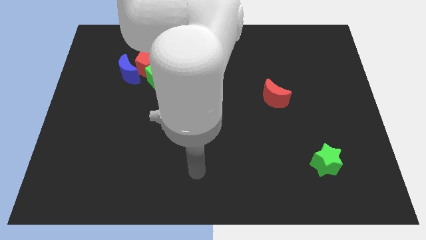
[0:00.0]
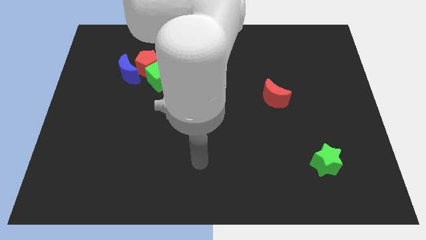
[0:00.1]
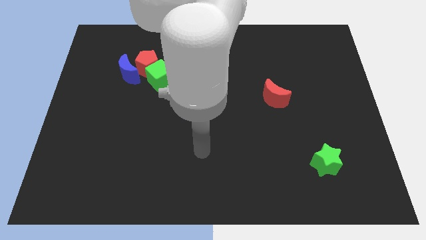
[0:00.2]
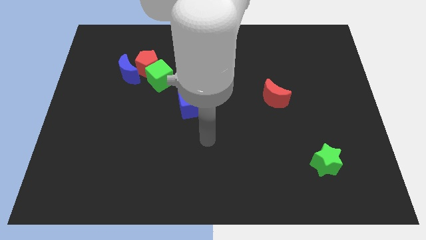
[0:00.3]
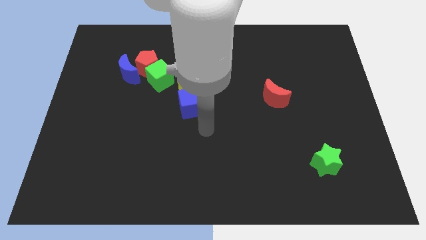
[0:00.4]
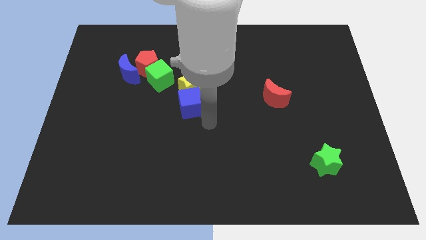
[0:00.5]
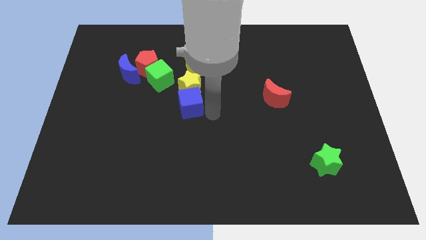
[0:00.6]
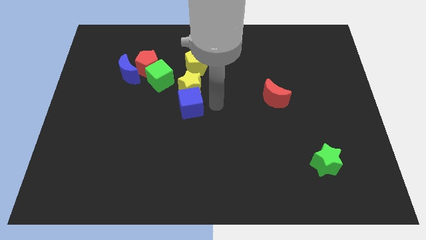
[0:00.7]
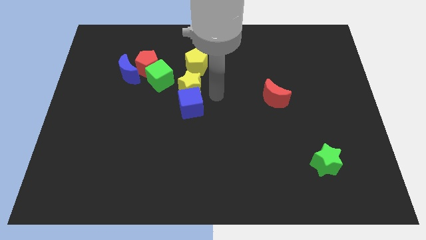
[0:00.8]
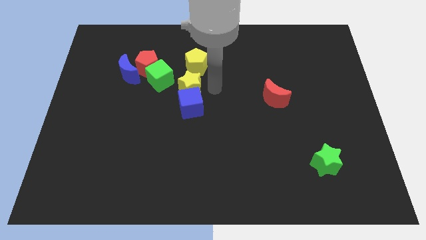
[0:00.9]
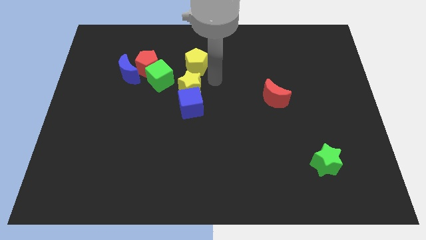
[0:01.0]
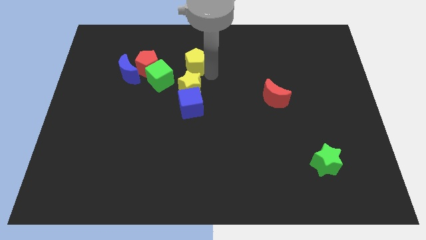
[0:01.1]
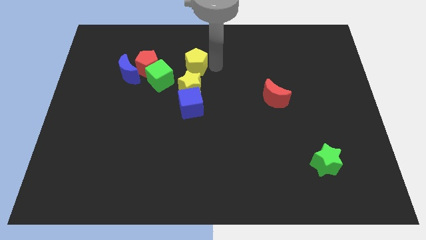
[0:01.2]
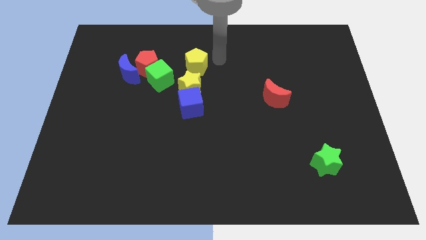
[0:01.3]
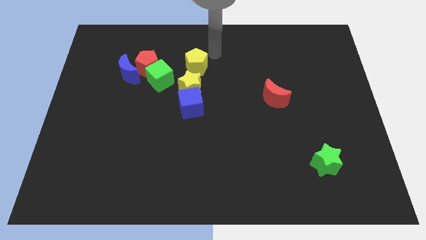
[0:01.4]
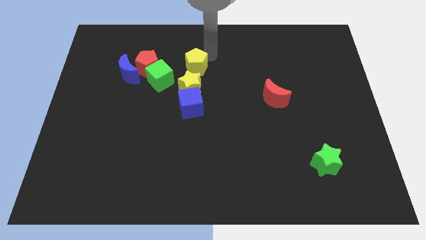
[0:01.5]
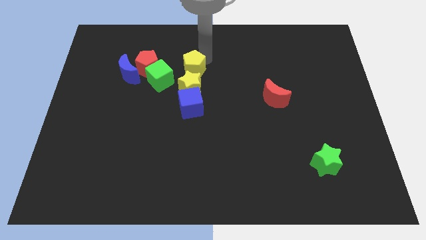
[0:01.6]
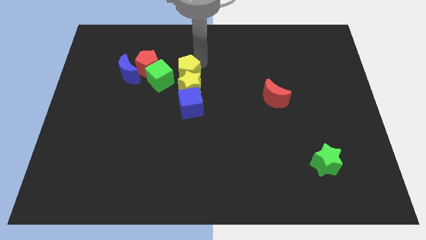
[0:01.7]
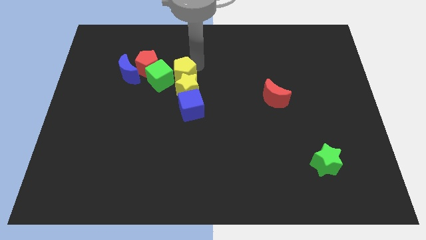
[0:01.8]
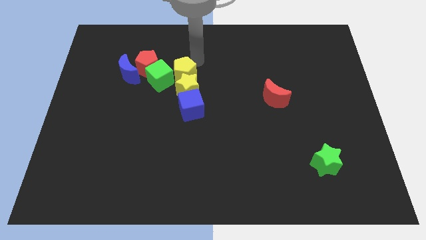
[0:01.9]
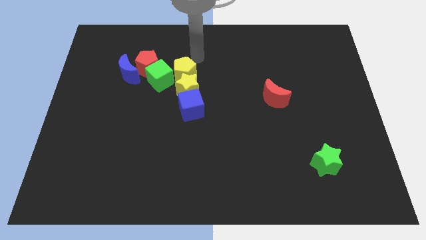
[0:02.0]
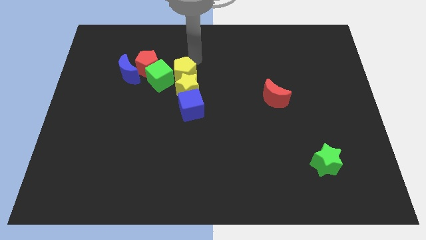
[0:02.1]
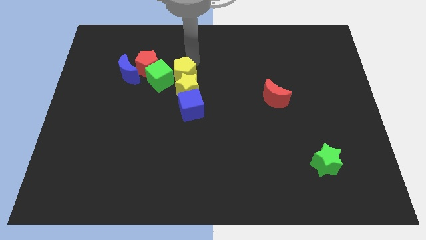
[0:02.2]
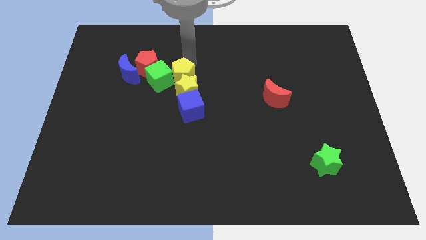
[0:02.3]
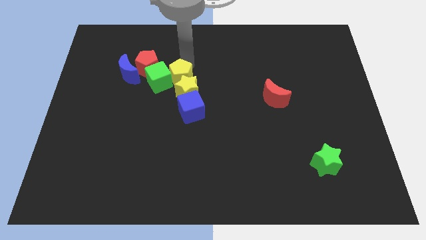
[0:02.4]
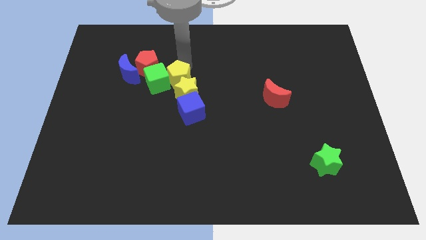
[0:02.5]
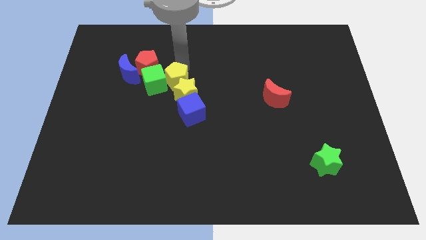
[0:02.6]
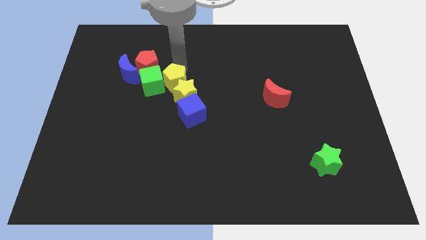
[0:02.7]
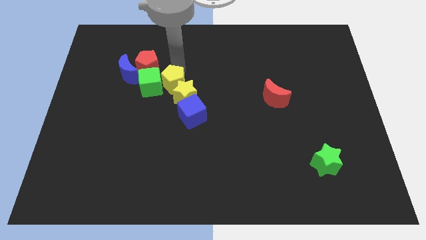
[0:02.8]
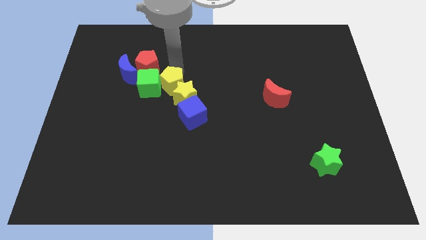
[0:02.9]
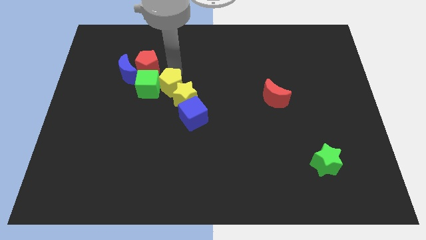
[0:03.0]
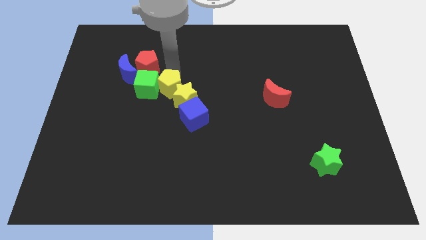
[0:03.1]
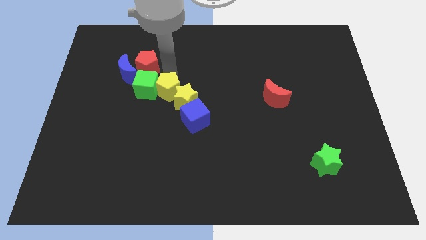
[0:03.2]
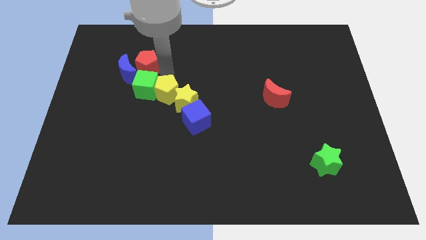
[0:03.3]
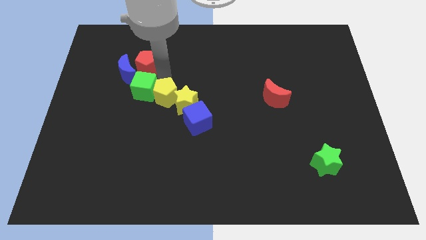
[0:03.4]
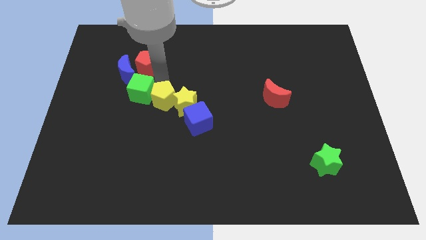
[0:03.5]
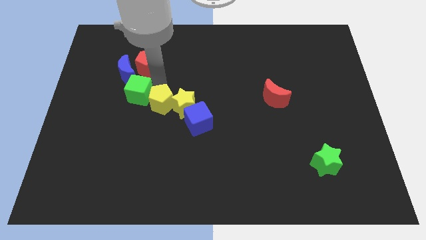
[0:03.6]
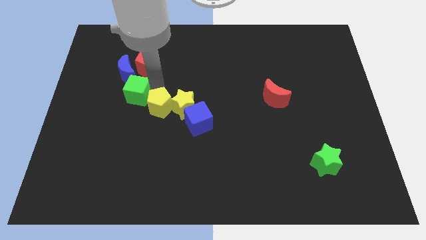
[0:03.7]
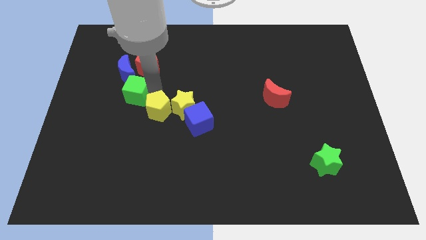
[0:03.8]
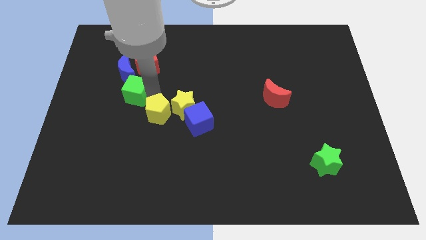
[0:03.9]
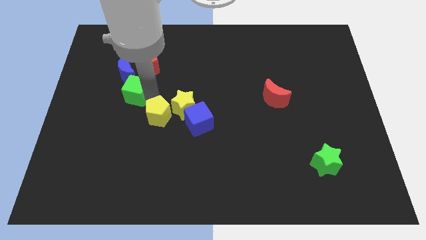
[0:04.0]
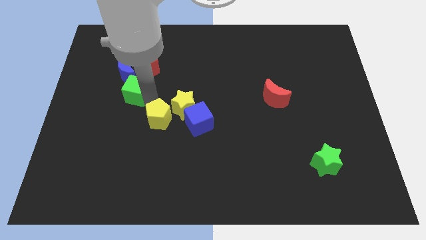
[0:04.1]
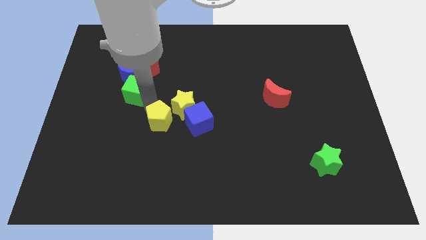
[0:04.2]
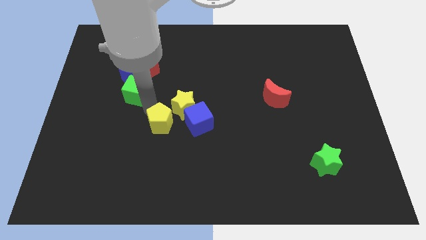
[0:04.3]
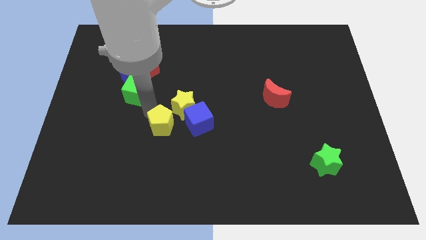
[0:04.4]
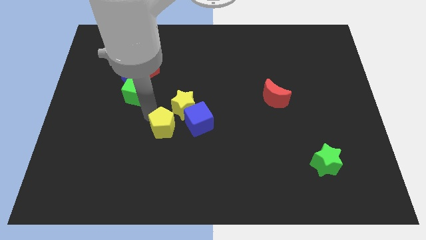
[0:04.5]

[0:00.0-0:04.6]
move the yellow pentagon to the bottom left of the blue cube

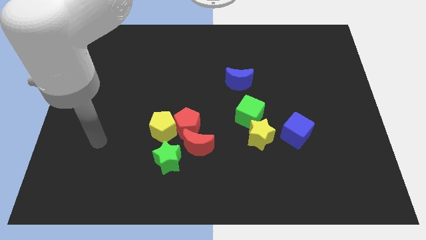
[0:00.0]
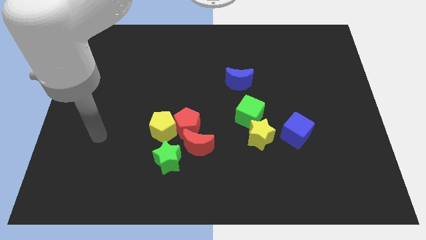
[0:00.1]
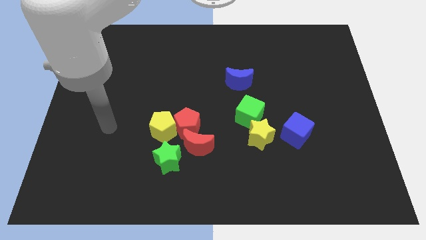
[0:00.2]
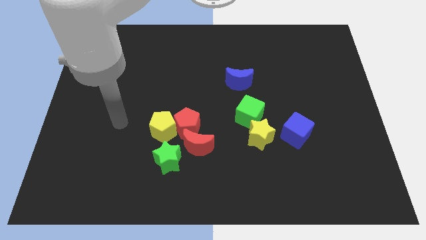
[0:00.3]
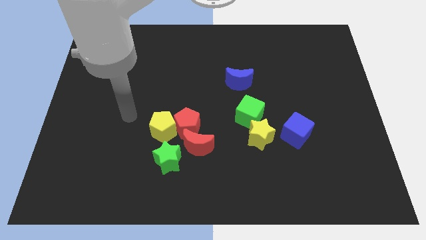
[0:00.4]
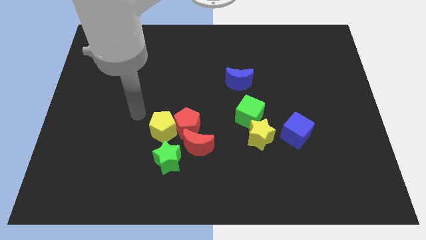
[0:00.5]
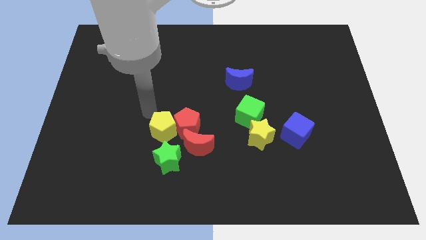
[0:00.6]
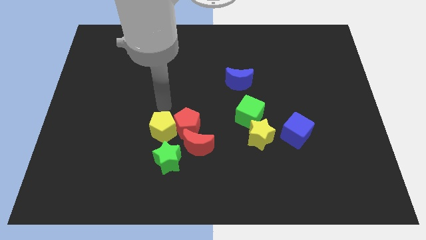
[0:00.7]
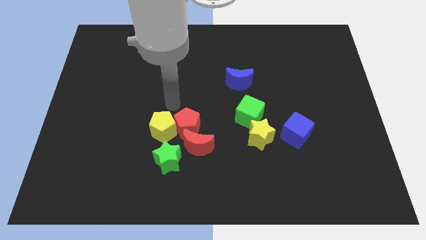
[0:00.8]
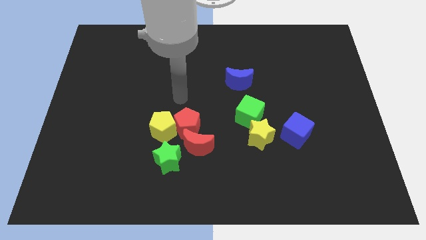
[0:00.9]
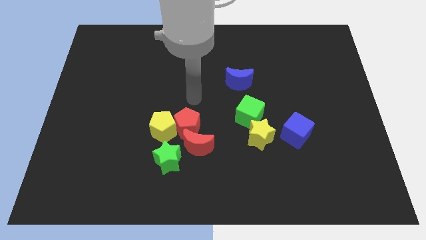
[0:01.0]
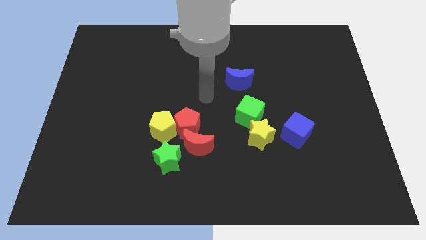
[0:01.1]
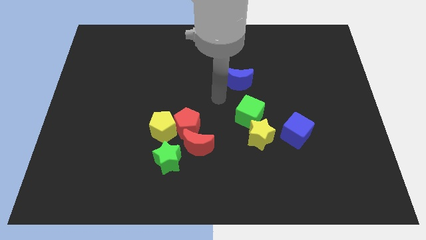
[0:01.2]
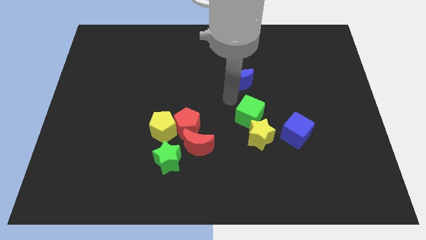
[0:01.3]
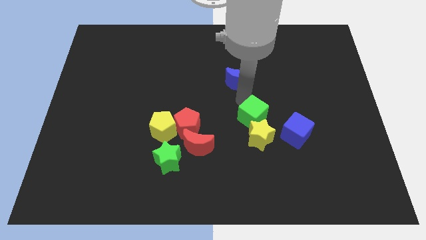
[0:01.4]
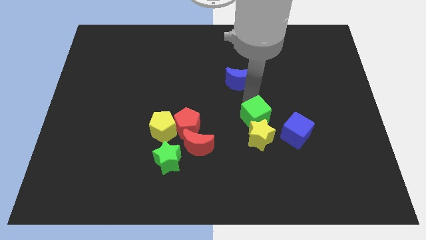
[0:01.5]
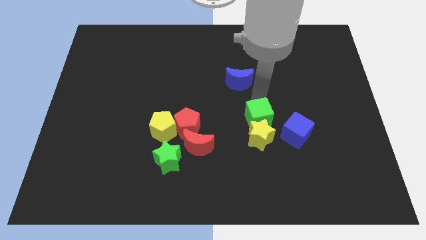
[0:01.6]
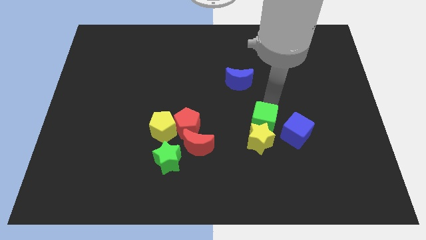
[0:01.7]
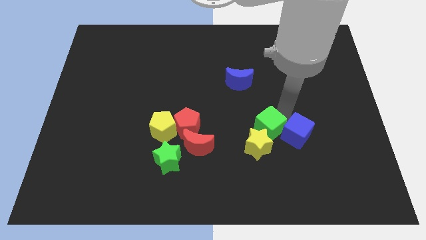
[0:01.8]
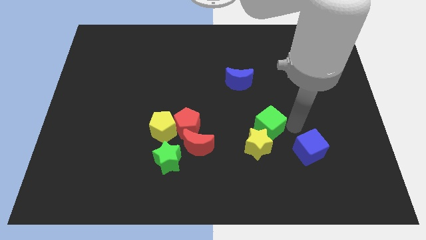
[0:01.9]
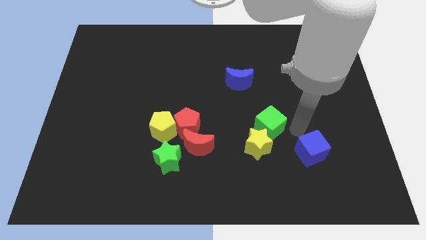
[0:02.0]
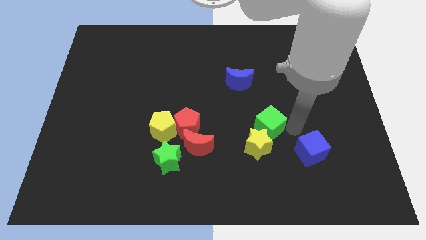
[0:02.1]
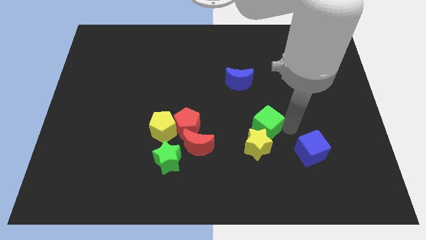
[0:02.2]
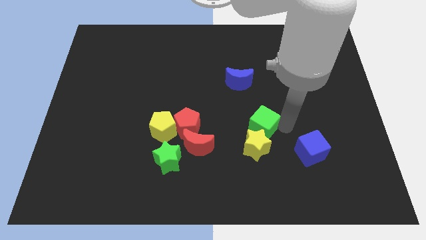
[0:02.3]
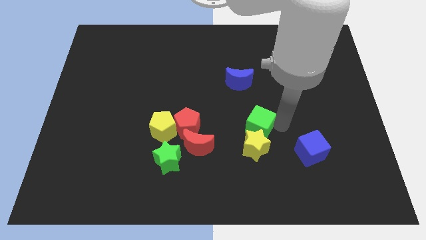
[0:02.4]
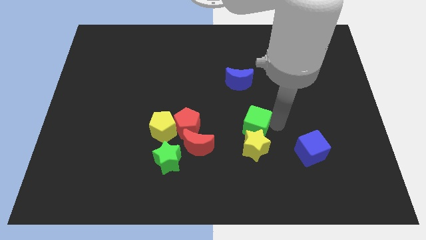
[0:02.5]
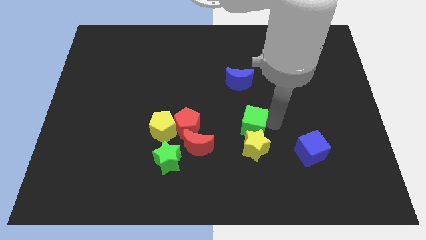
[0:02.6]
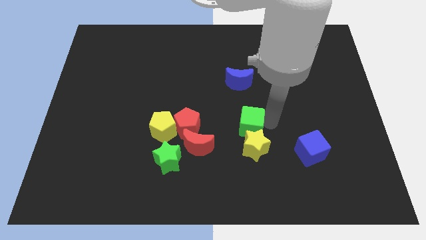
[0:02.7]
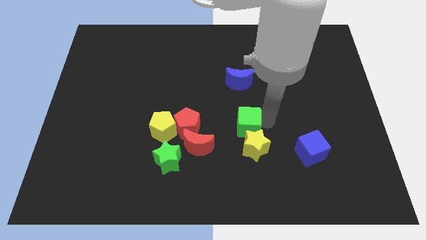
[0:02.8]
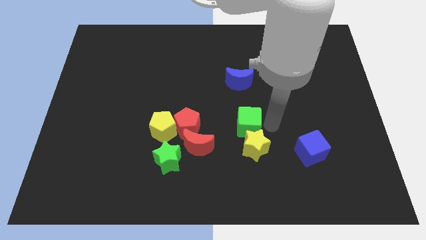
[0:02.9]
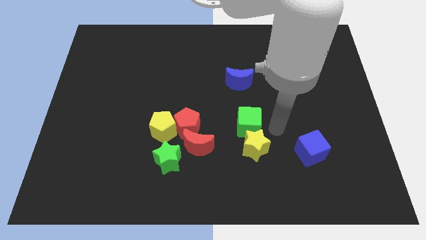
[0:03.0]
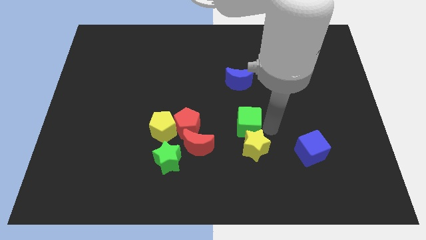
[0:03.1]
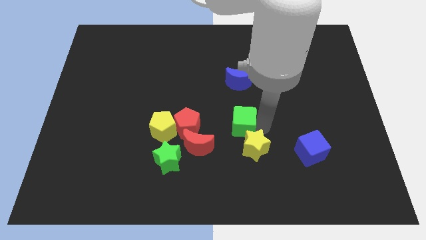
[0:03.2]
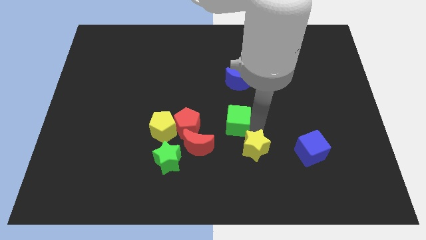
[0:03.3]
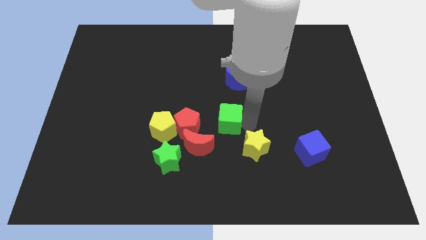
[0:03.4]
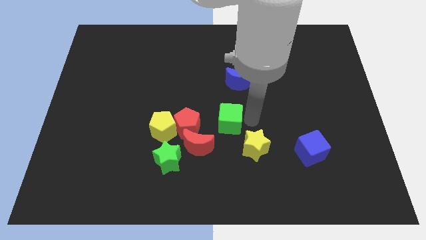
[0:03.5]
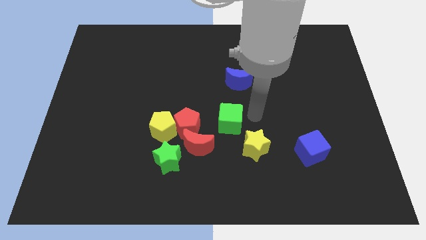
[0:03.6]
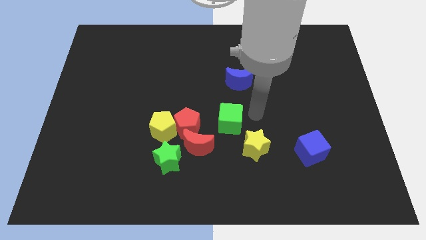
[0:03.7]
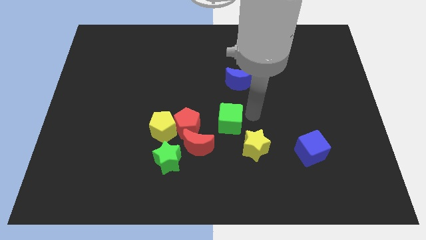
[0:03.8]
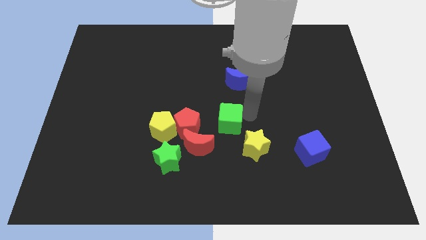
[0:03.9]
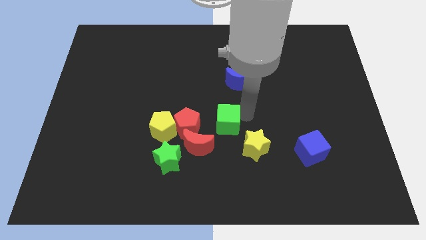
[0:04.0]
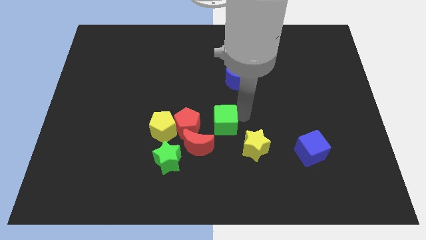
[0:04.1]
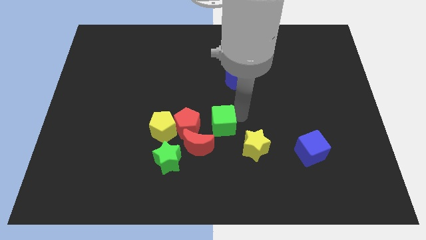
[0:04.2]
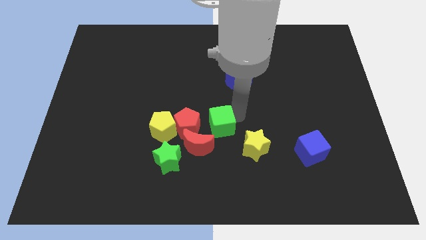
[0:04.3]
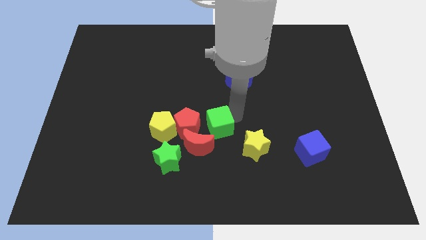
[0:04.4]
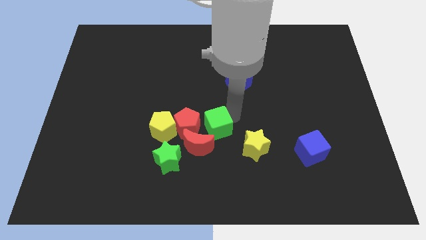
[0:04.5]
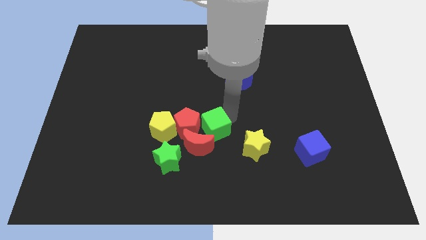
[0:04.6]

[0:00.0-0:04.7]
slide the green cube diagonally up and to the right of the green star
